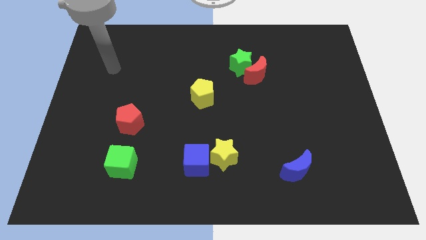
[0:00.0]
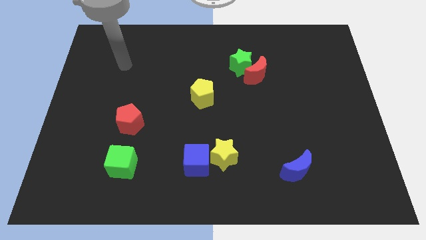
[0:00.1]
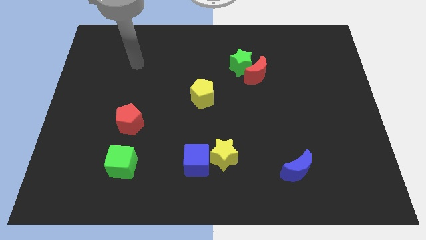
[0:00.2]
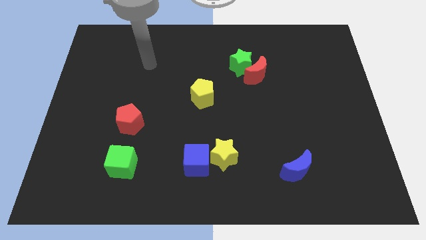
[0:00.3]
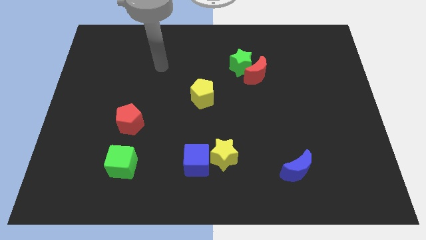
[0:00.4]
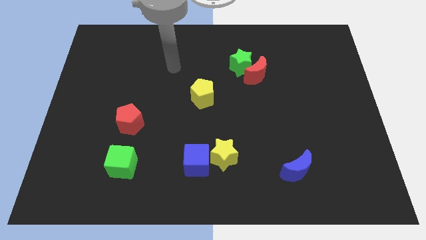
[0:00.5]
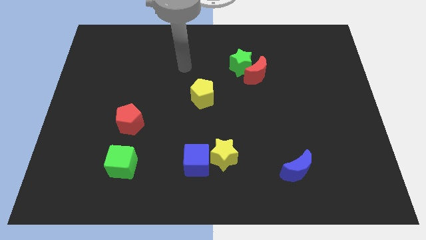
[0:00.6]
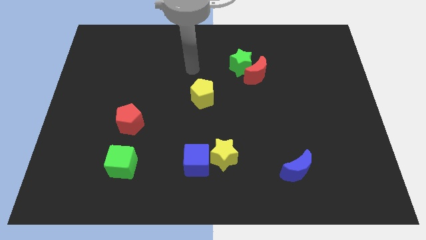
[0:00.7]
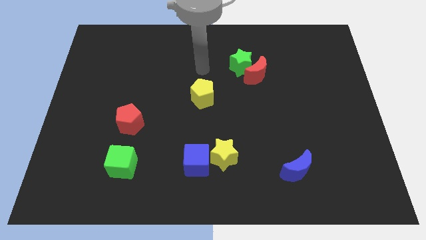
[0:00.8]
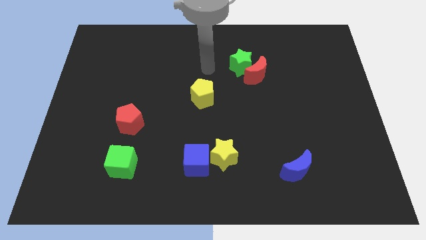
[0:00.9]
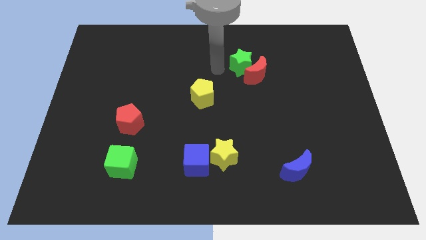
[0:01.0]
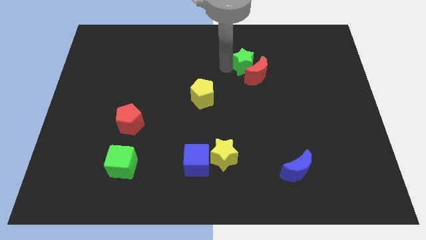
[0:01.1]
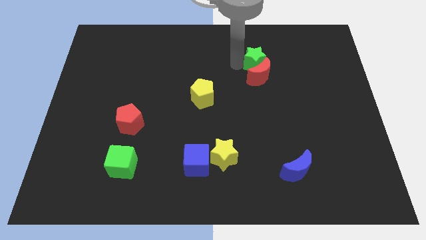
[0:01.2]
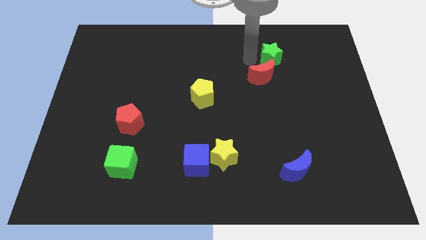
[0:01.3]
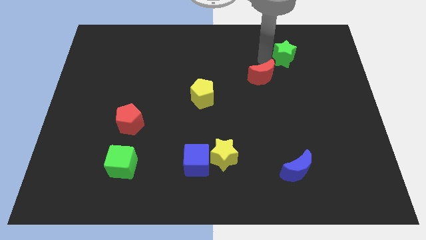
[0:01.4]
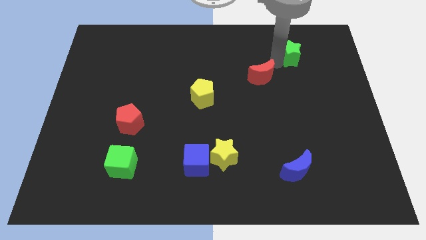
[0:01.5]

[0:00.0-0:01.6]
separate the red moon from the green star

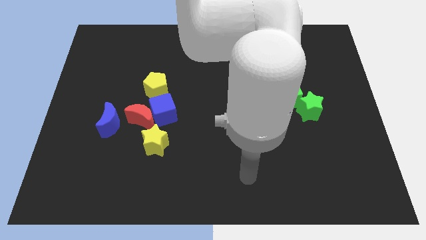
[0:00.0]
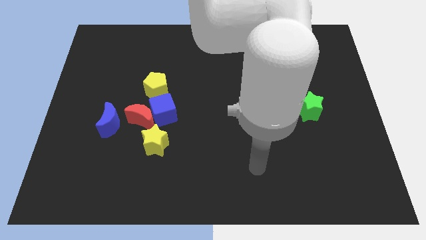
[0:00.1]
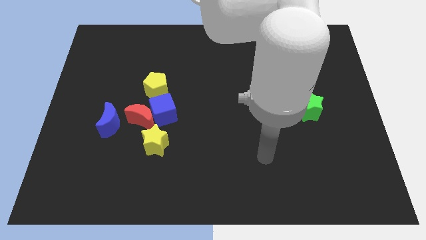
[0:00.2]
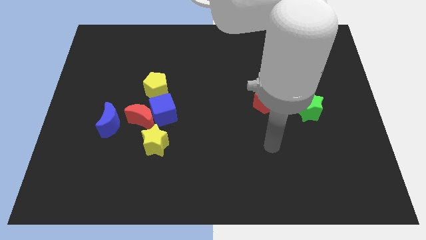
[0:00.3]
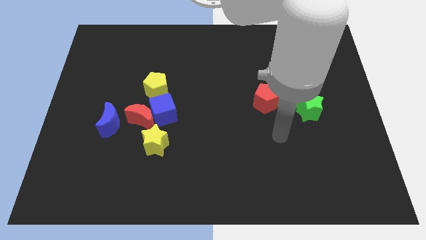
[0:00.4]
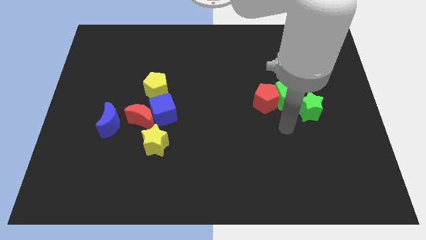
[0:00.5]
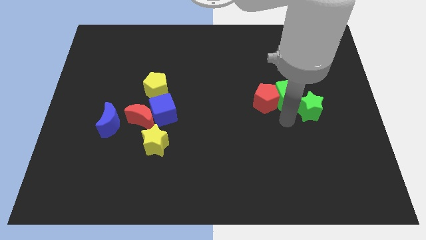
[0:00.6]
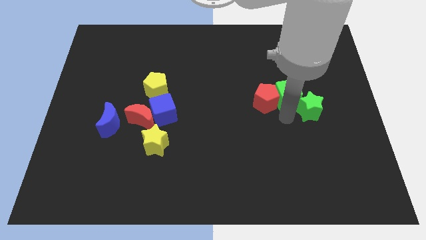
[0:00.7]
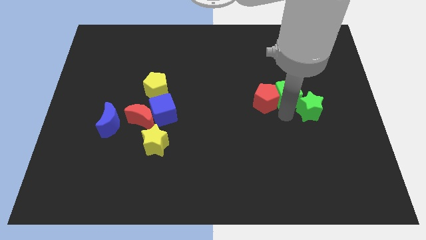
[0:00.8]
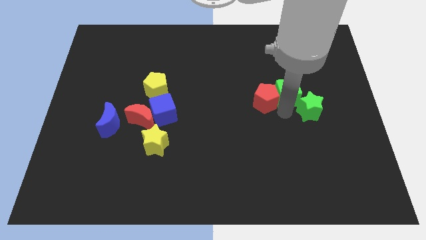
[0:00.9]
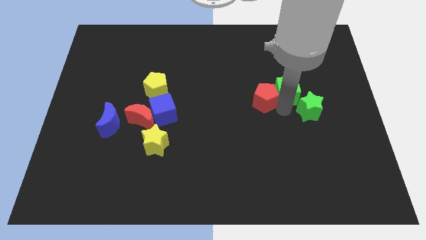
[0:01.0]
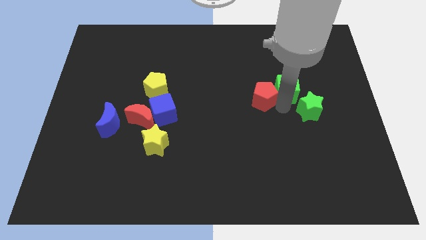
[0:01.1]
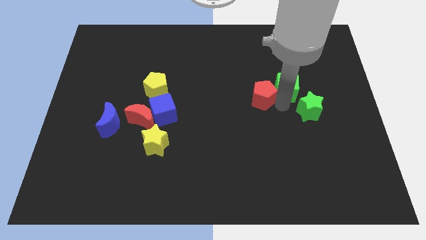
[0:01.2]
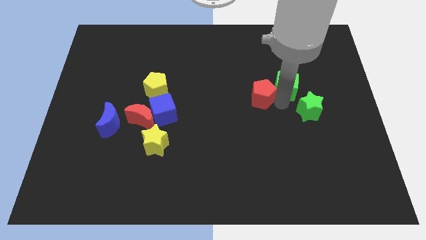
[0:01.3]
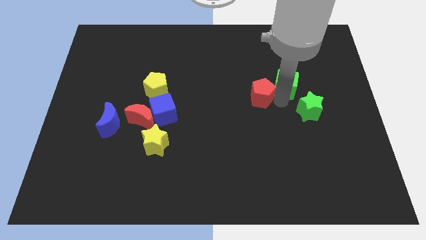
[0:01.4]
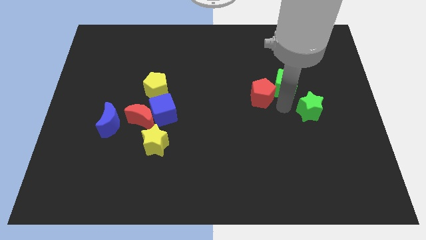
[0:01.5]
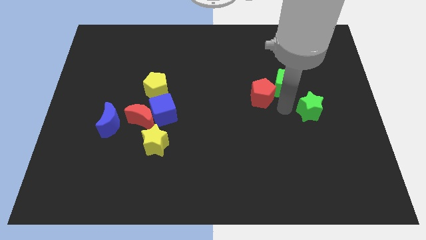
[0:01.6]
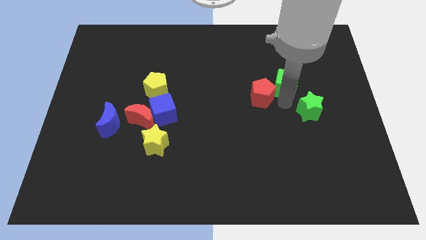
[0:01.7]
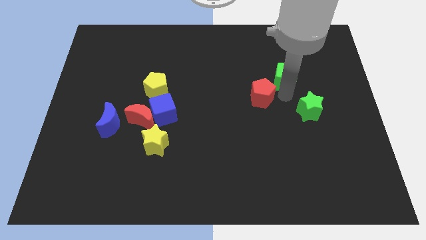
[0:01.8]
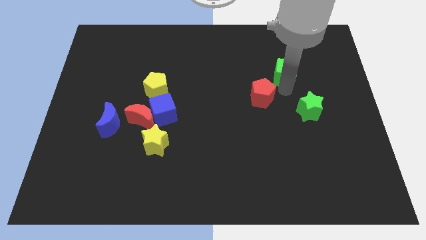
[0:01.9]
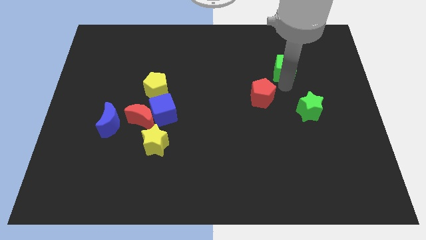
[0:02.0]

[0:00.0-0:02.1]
pull the green cube apart from the red pentagon and green star

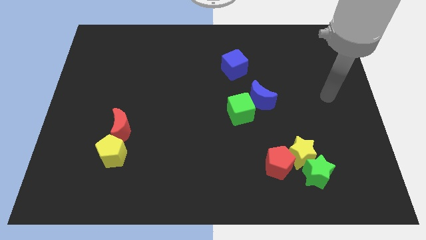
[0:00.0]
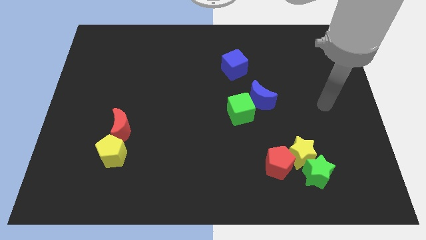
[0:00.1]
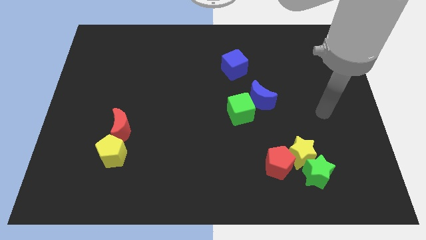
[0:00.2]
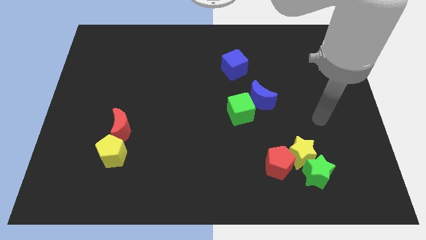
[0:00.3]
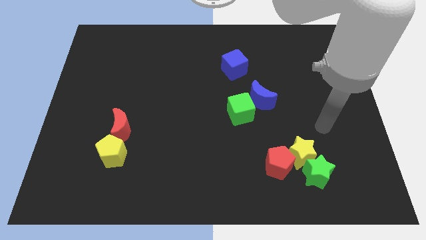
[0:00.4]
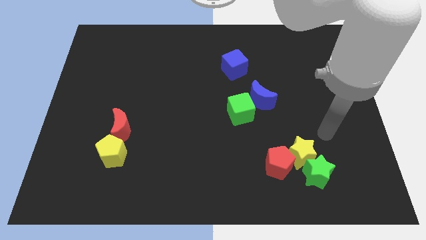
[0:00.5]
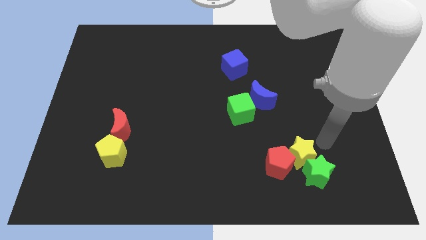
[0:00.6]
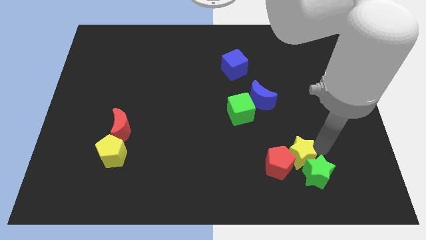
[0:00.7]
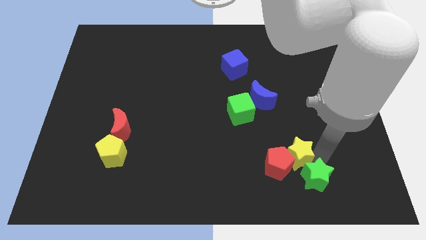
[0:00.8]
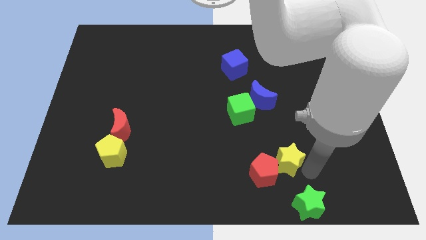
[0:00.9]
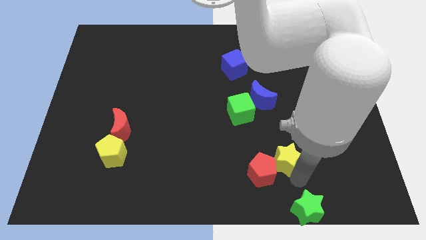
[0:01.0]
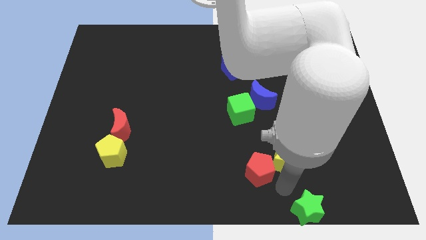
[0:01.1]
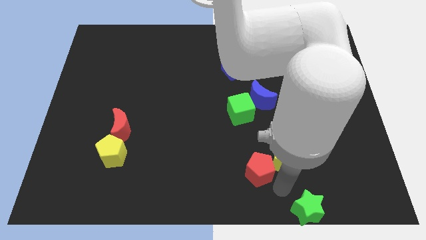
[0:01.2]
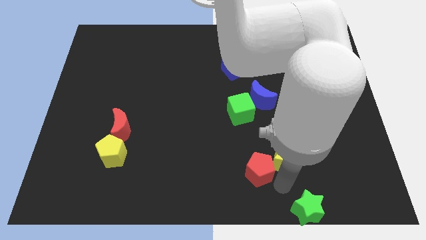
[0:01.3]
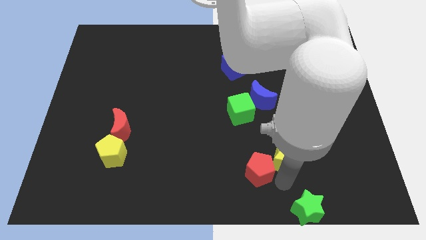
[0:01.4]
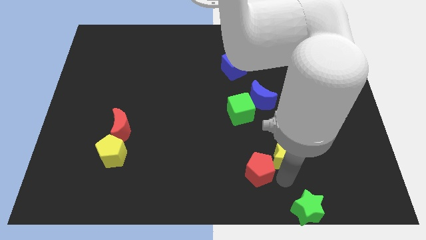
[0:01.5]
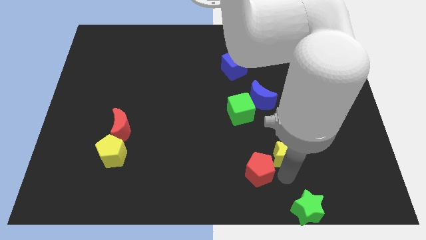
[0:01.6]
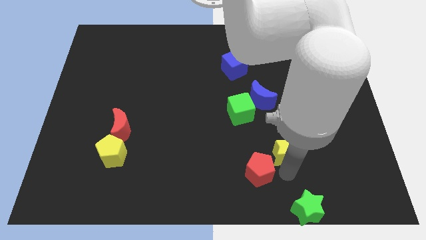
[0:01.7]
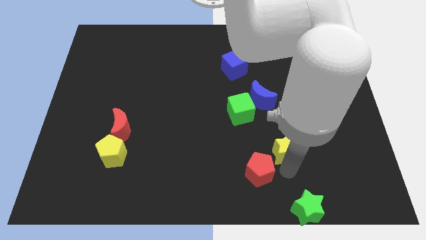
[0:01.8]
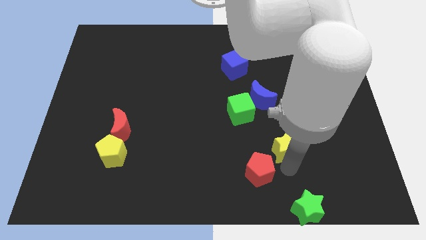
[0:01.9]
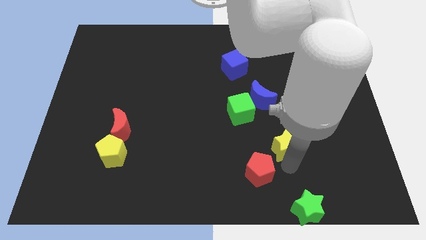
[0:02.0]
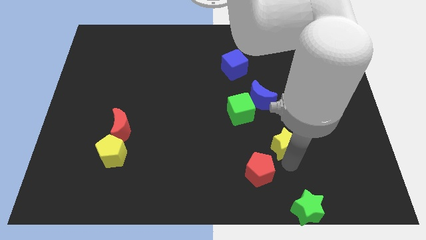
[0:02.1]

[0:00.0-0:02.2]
separate the yellow star from the green star and red pentagon

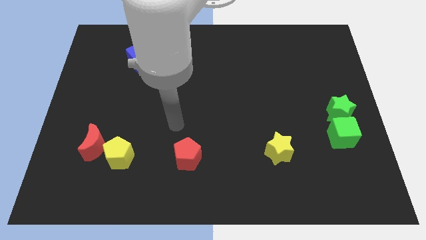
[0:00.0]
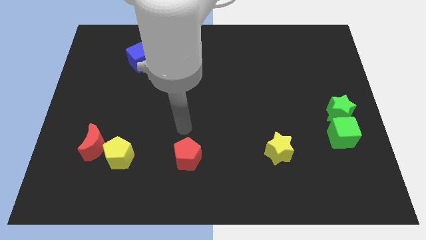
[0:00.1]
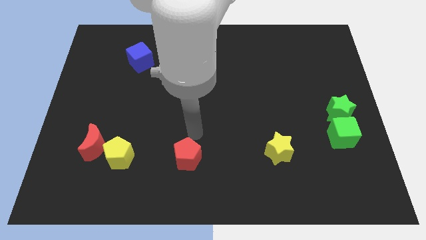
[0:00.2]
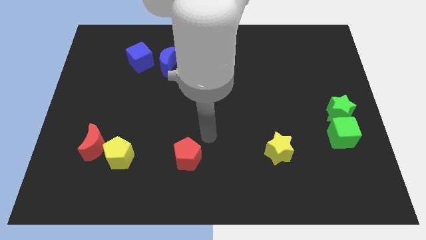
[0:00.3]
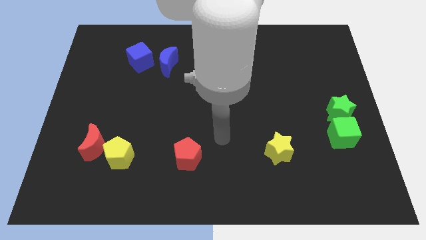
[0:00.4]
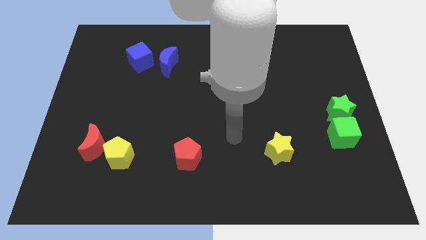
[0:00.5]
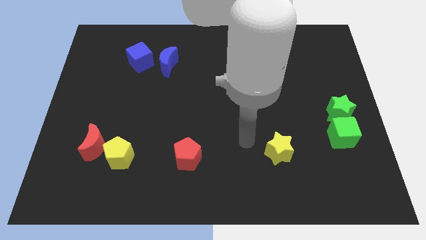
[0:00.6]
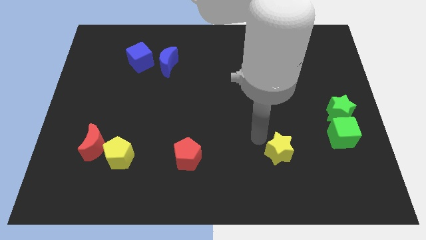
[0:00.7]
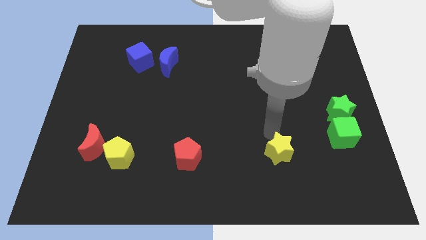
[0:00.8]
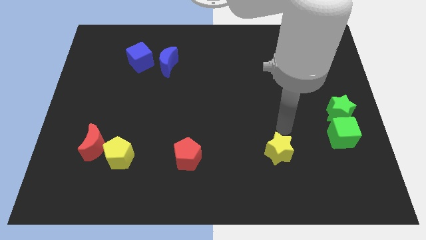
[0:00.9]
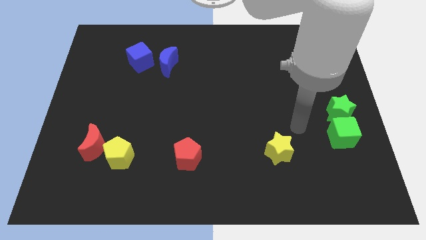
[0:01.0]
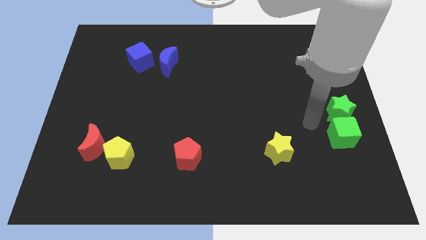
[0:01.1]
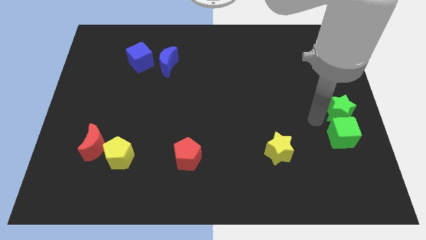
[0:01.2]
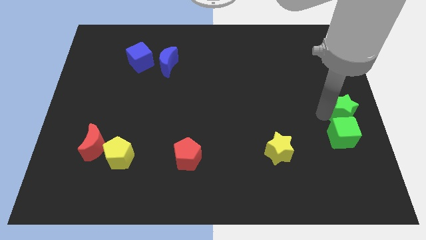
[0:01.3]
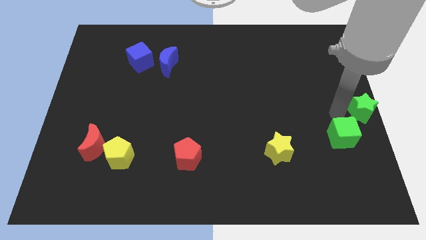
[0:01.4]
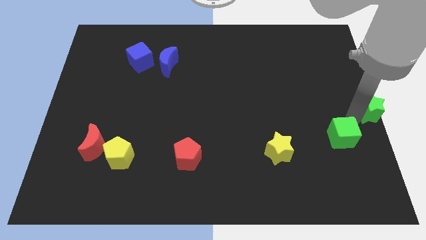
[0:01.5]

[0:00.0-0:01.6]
separate the green cube from the green star

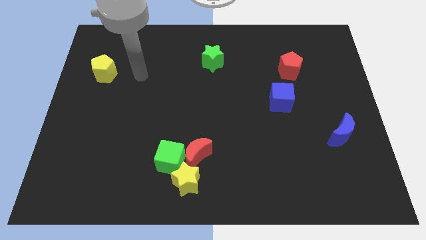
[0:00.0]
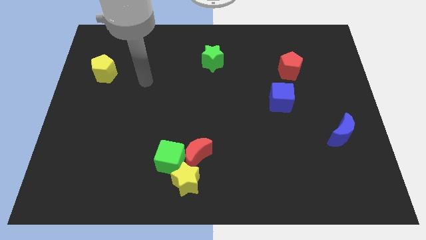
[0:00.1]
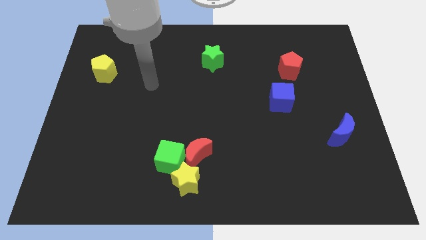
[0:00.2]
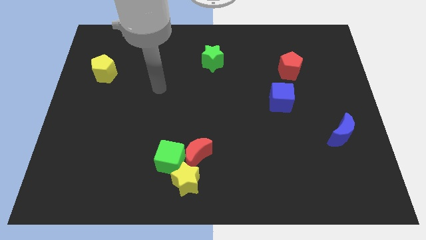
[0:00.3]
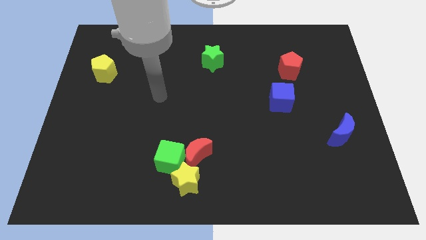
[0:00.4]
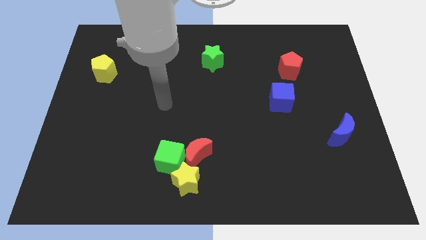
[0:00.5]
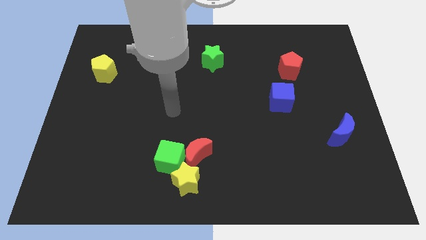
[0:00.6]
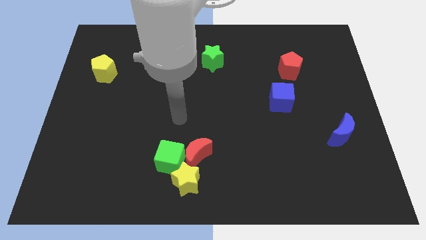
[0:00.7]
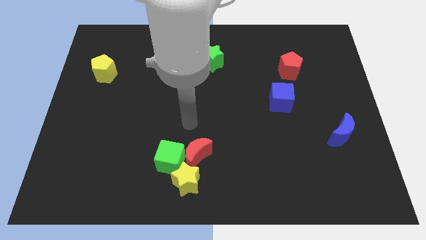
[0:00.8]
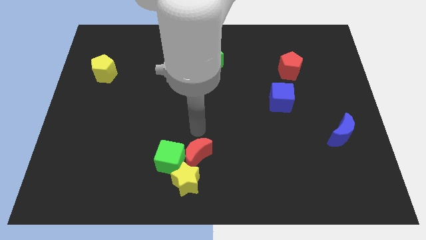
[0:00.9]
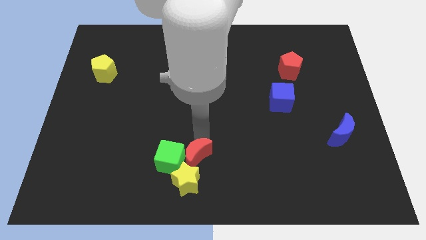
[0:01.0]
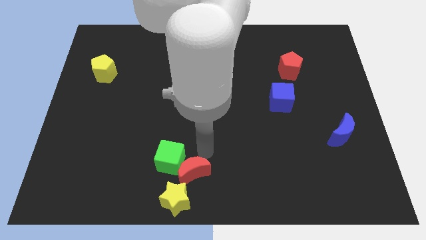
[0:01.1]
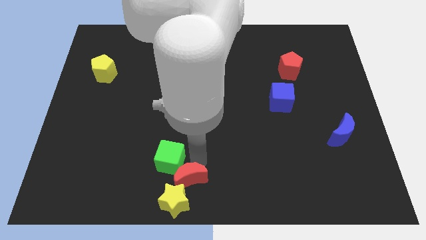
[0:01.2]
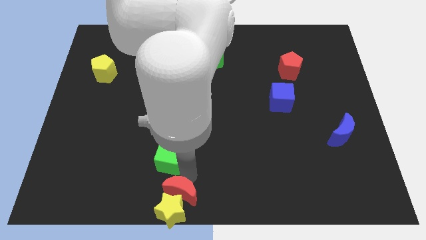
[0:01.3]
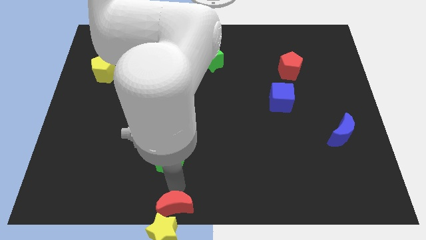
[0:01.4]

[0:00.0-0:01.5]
separate the green cube from the red moon and yellow star

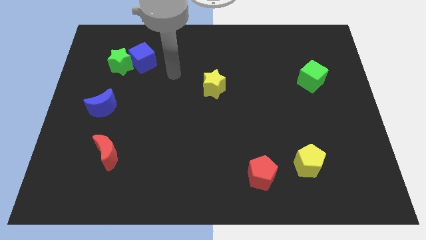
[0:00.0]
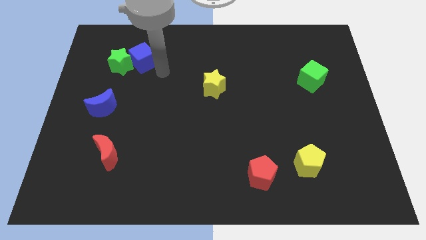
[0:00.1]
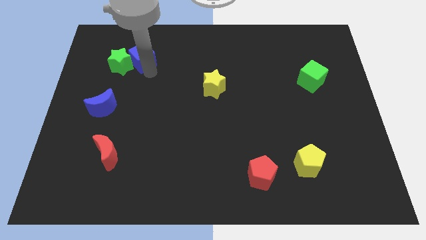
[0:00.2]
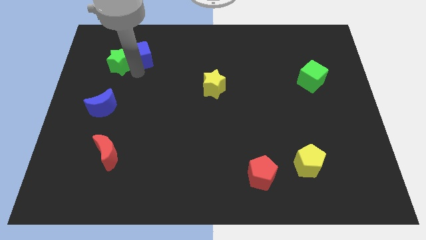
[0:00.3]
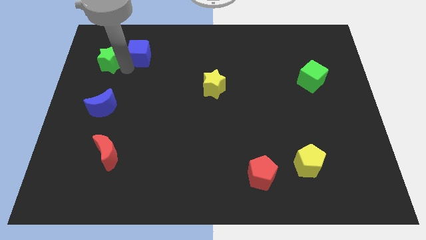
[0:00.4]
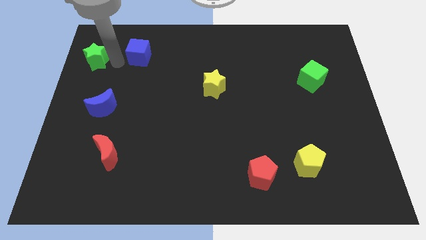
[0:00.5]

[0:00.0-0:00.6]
pull the blue cube apart from the green star
